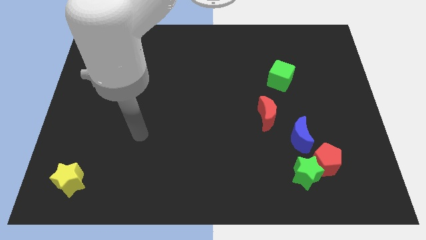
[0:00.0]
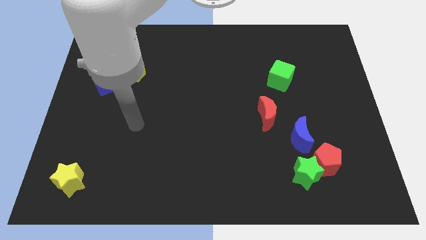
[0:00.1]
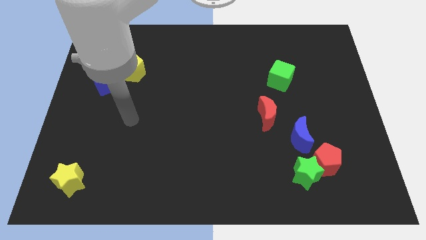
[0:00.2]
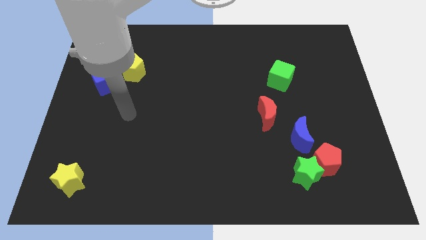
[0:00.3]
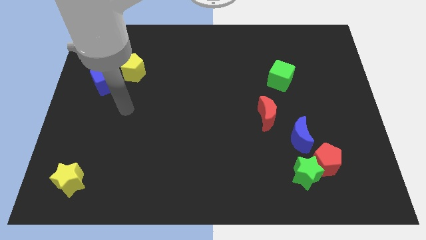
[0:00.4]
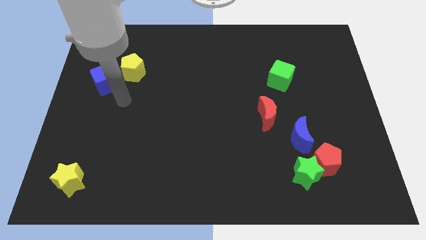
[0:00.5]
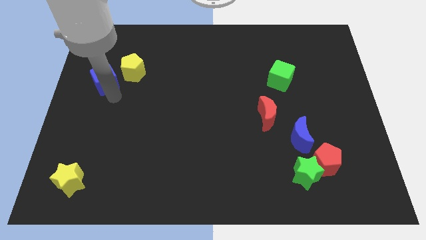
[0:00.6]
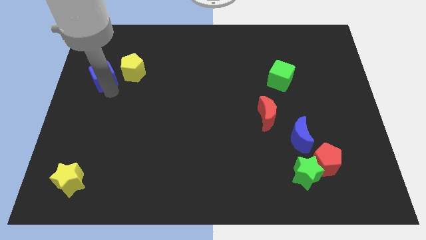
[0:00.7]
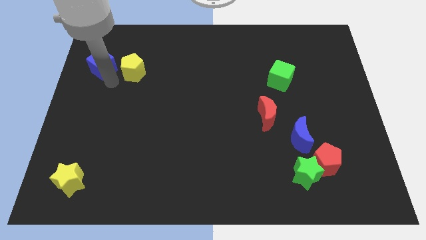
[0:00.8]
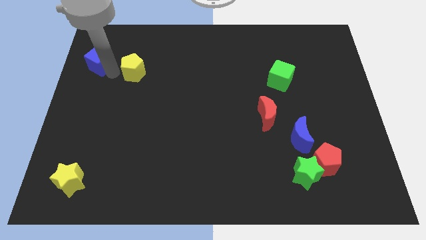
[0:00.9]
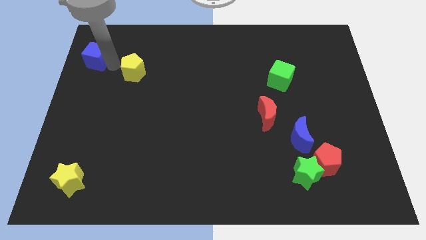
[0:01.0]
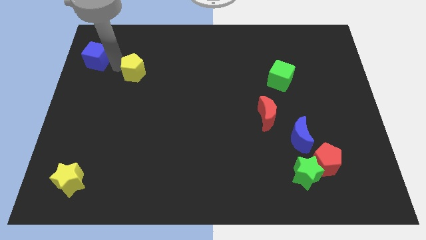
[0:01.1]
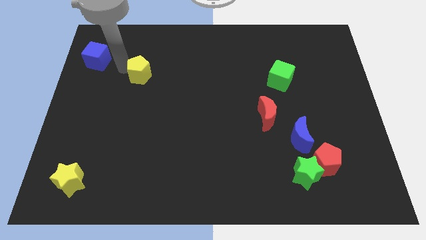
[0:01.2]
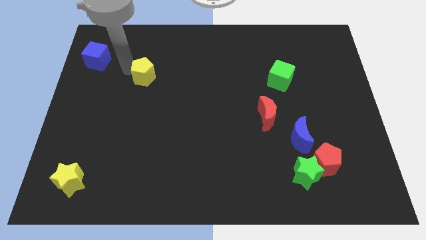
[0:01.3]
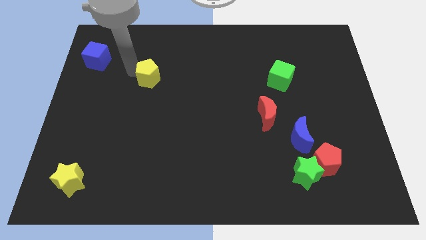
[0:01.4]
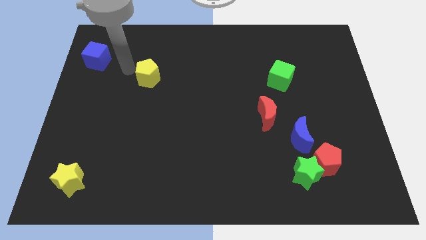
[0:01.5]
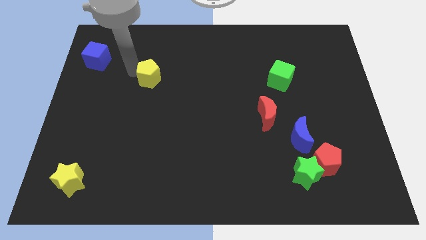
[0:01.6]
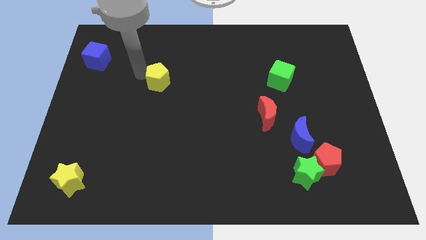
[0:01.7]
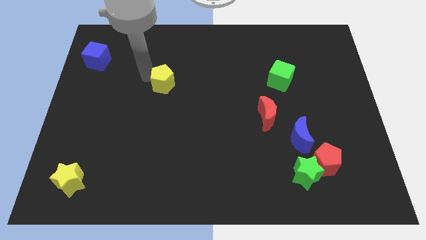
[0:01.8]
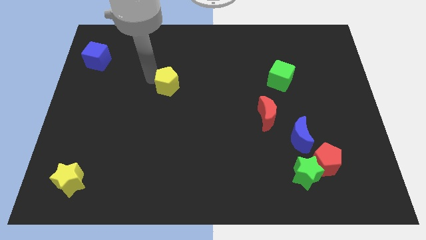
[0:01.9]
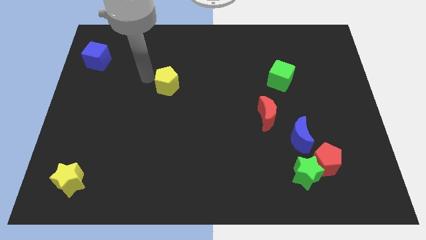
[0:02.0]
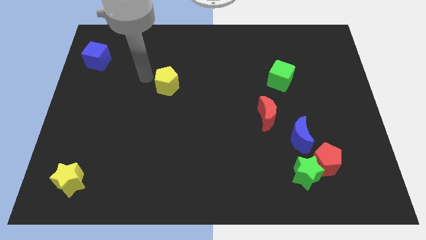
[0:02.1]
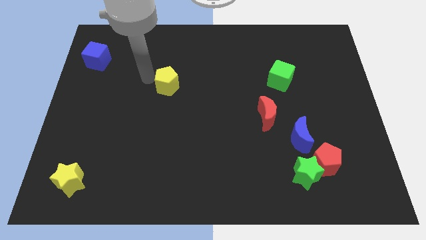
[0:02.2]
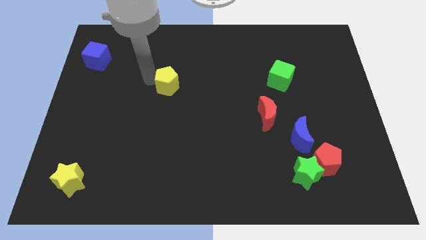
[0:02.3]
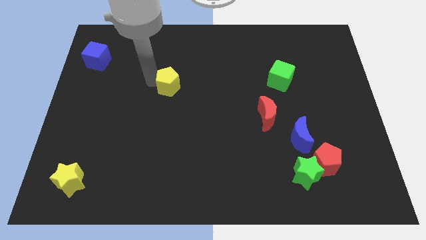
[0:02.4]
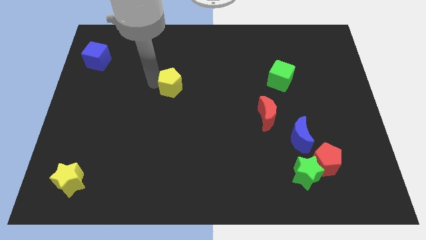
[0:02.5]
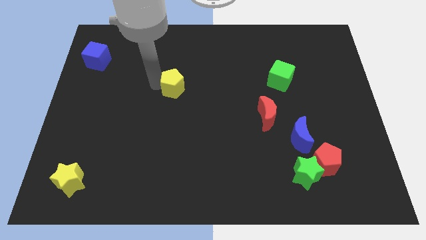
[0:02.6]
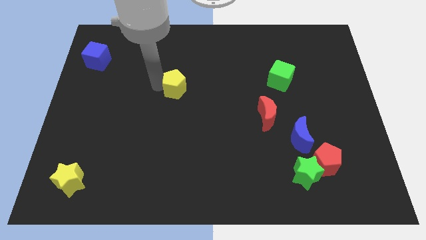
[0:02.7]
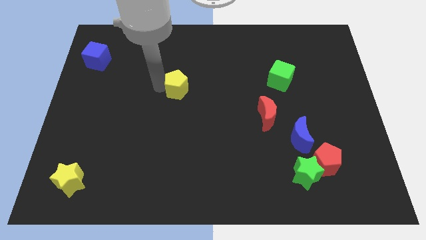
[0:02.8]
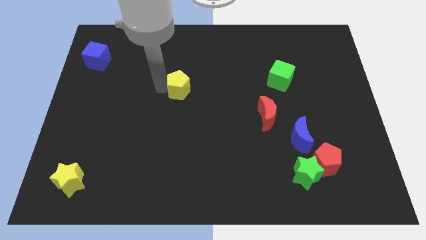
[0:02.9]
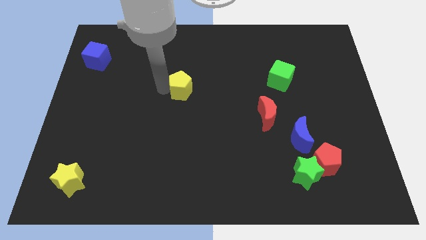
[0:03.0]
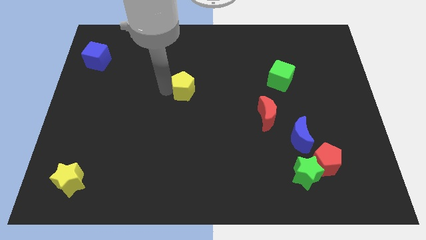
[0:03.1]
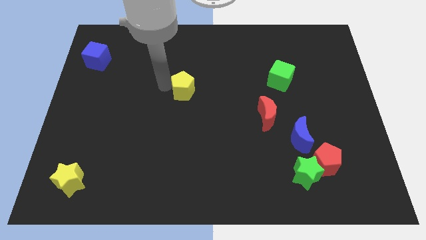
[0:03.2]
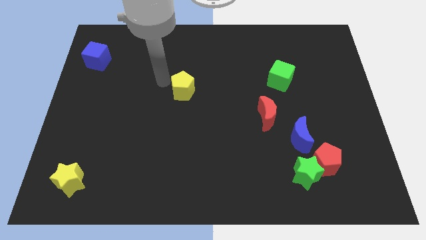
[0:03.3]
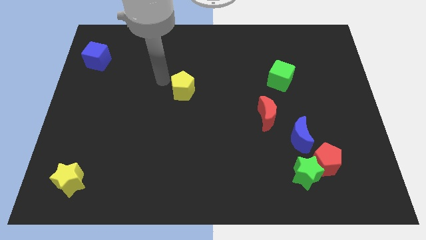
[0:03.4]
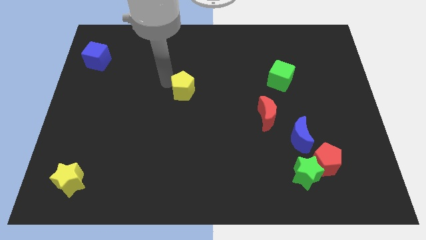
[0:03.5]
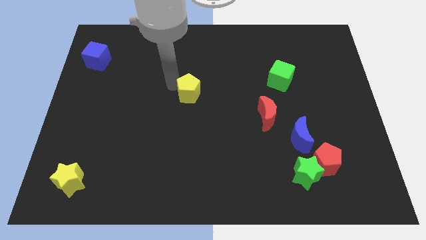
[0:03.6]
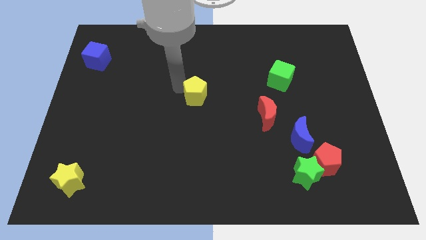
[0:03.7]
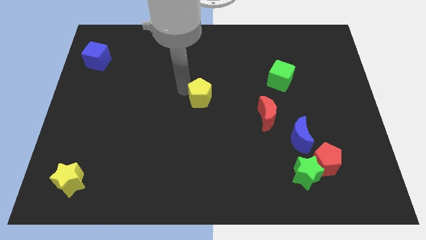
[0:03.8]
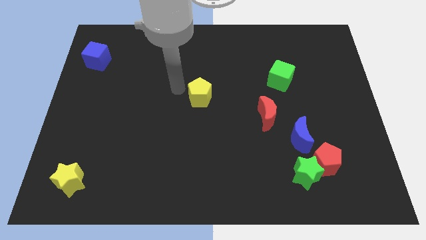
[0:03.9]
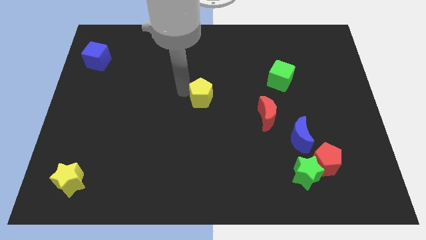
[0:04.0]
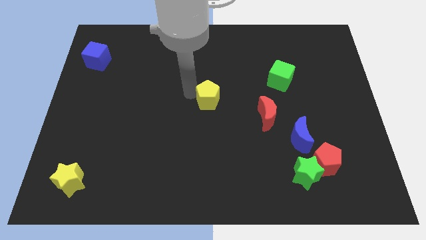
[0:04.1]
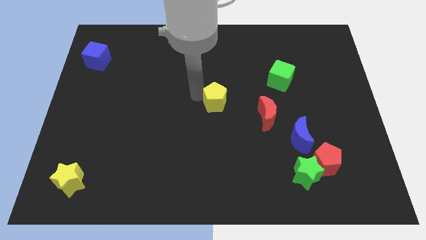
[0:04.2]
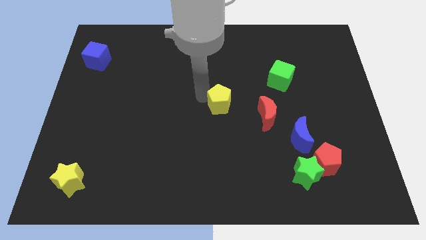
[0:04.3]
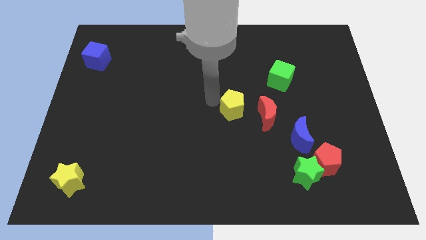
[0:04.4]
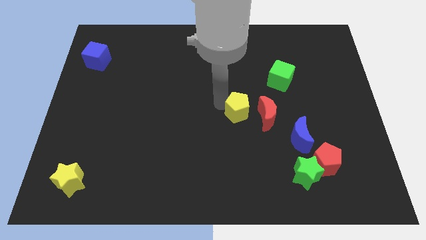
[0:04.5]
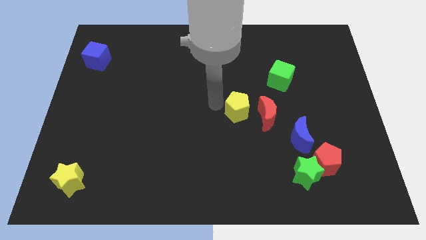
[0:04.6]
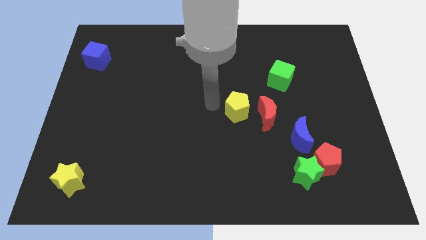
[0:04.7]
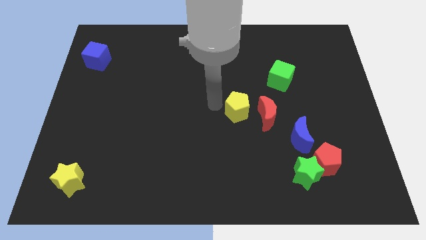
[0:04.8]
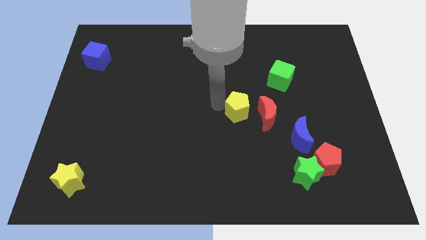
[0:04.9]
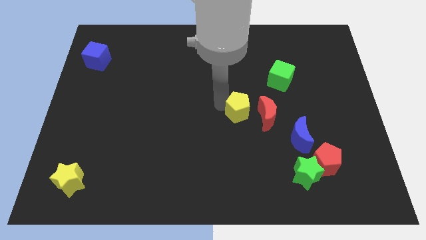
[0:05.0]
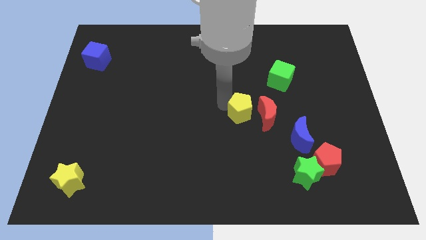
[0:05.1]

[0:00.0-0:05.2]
move the yellow pentagon next to the red moon

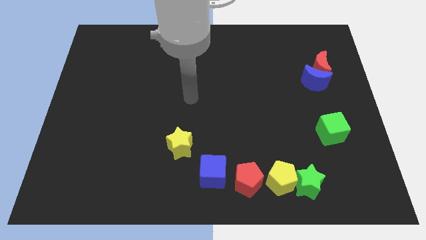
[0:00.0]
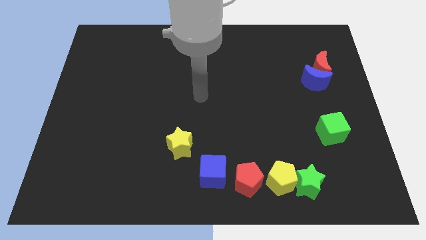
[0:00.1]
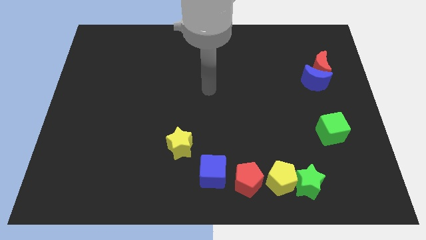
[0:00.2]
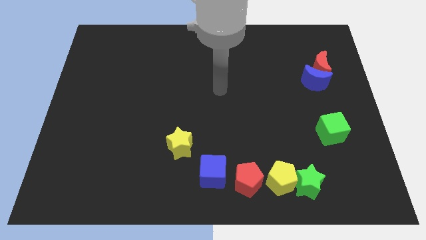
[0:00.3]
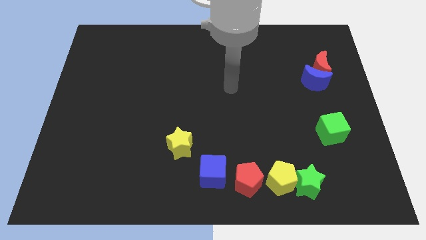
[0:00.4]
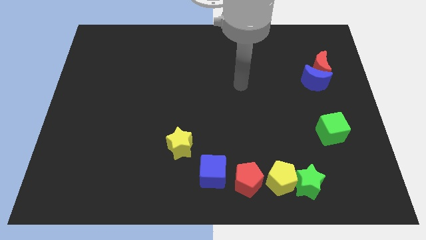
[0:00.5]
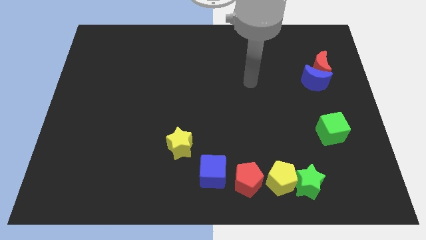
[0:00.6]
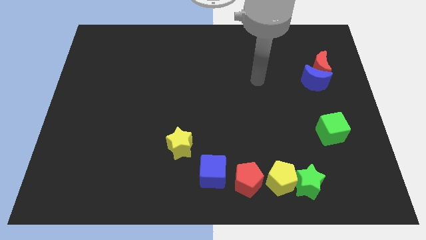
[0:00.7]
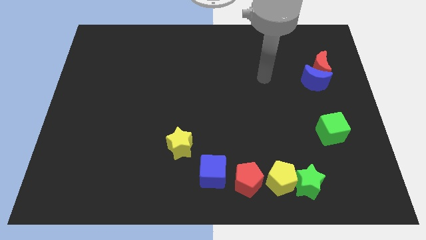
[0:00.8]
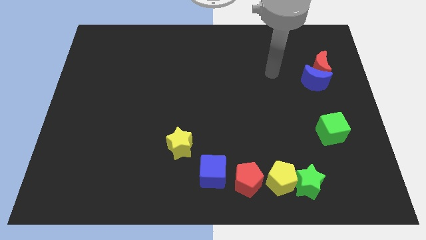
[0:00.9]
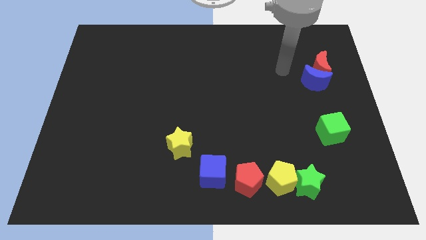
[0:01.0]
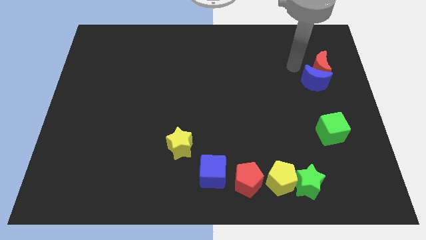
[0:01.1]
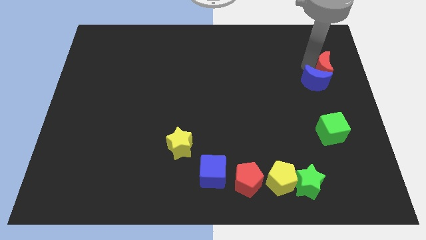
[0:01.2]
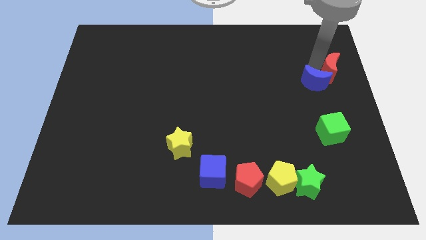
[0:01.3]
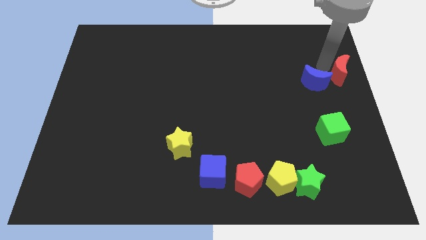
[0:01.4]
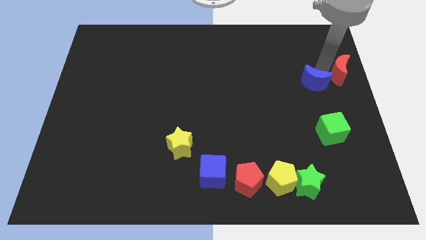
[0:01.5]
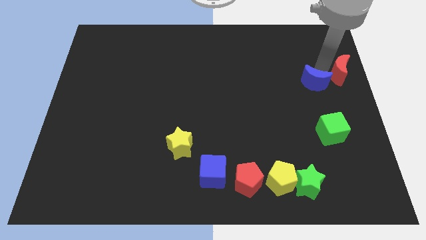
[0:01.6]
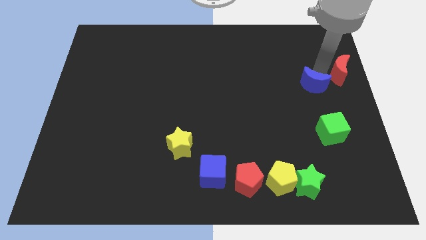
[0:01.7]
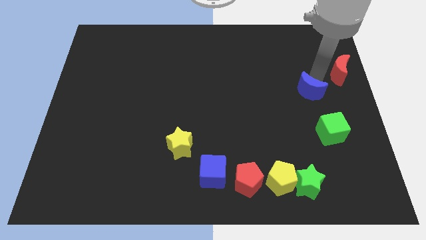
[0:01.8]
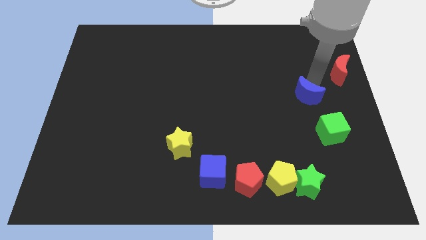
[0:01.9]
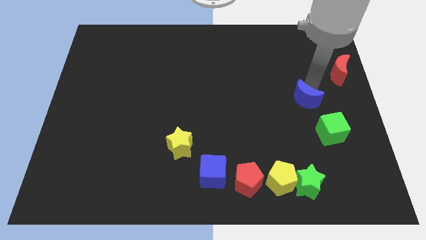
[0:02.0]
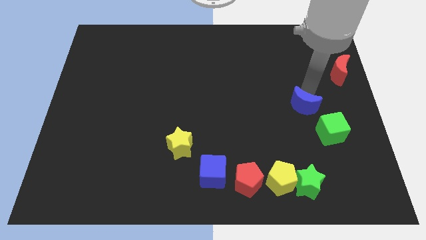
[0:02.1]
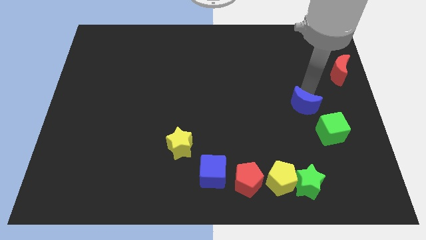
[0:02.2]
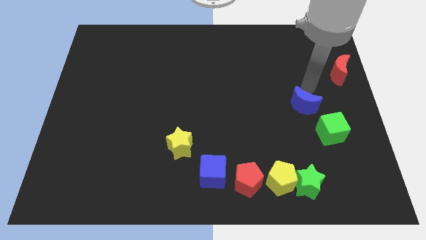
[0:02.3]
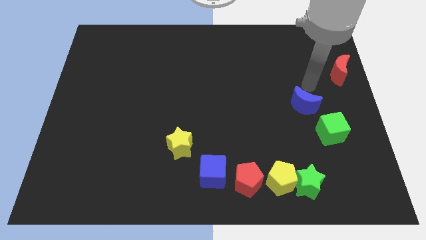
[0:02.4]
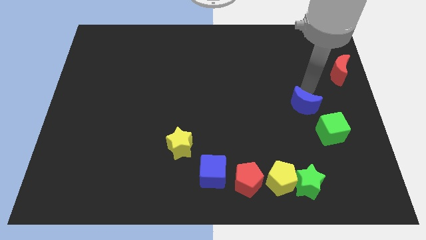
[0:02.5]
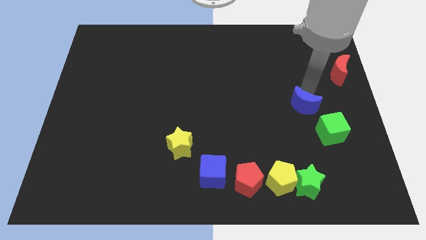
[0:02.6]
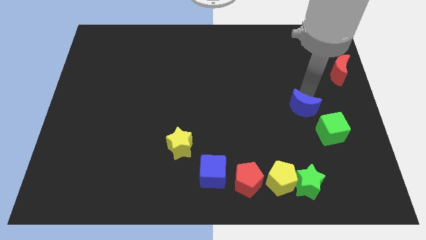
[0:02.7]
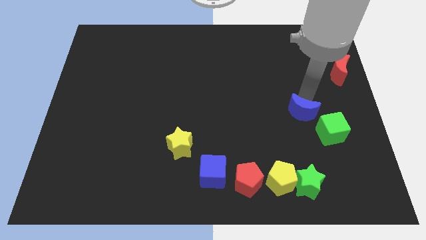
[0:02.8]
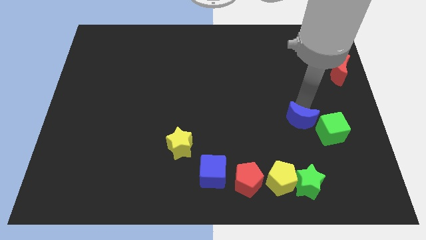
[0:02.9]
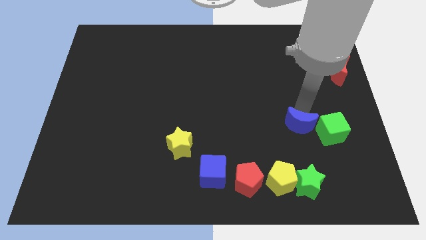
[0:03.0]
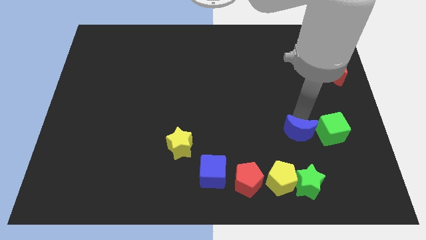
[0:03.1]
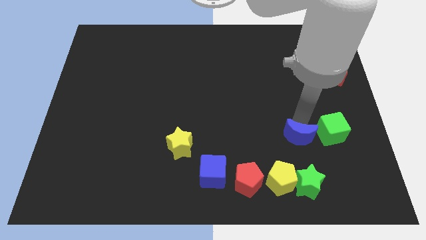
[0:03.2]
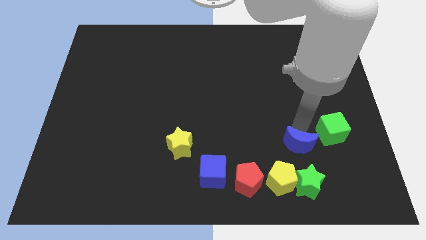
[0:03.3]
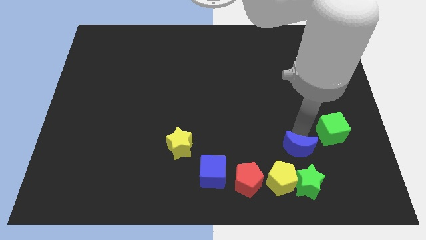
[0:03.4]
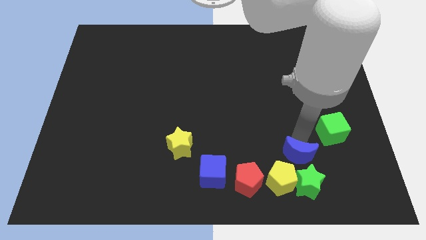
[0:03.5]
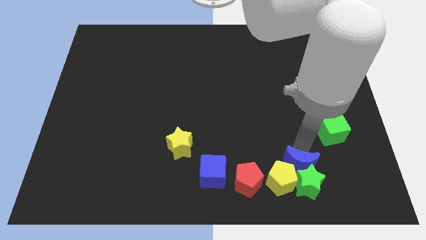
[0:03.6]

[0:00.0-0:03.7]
push the blue moon to the yellow pentagon
